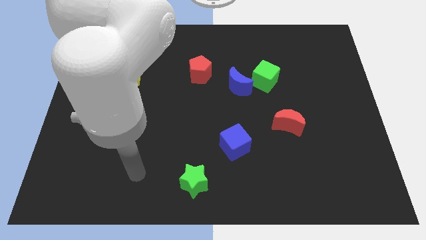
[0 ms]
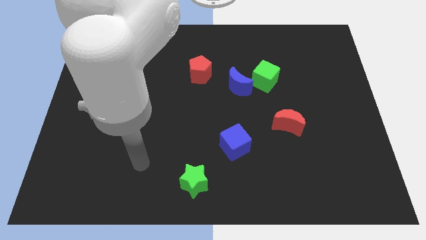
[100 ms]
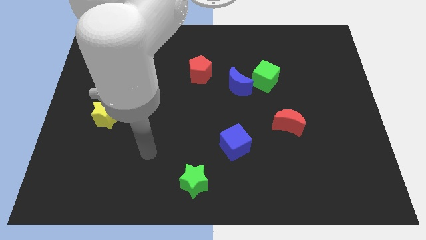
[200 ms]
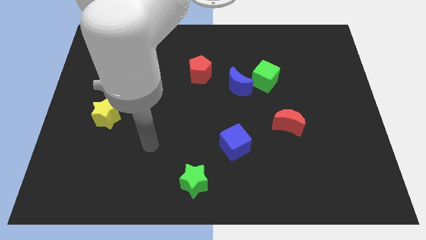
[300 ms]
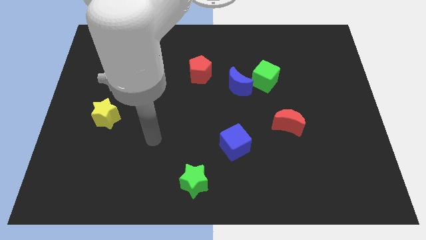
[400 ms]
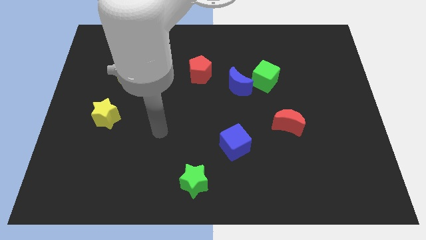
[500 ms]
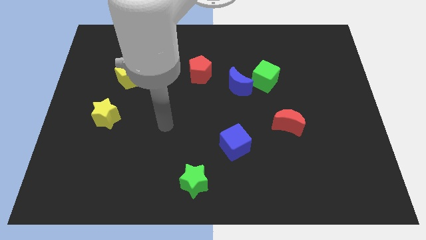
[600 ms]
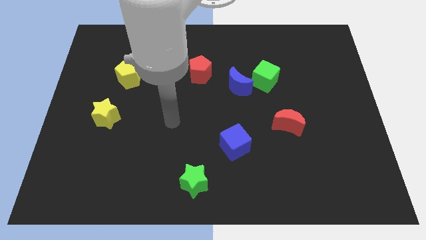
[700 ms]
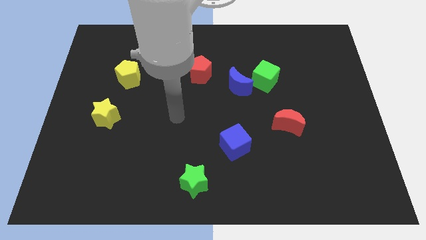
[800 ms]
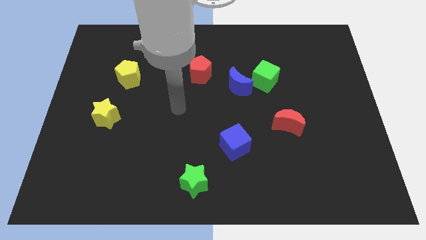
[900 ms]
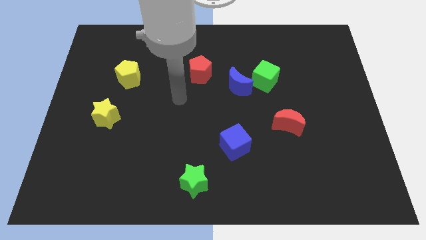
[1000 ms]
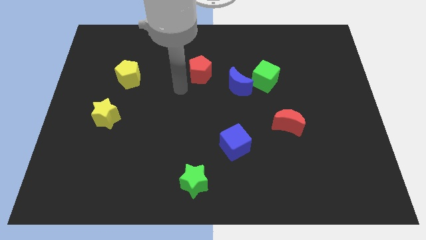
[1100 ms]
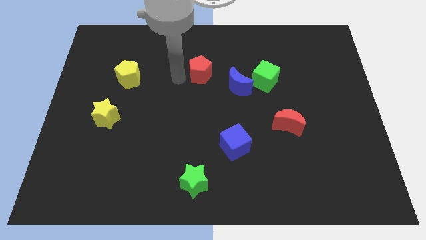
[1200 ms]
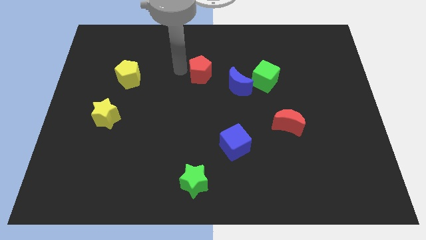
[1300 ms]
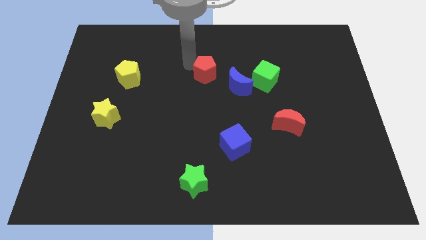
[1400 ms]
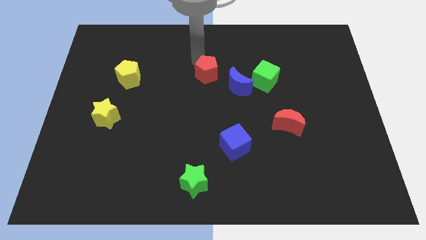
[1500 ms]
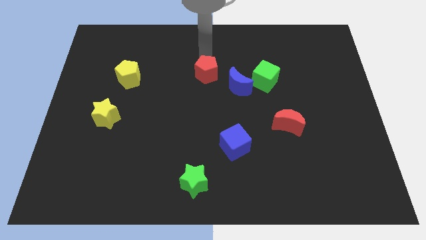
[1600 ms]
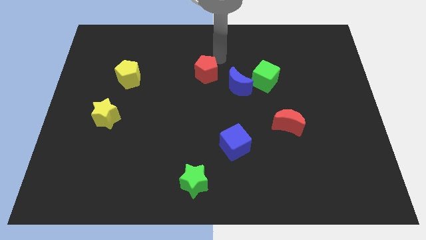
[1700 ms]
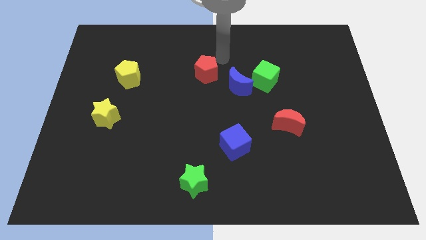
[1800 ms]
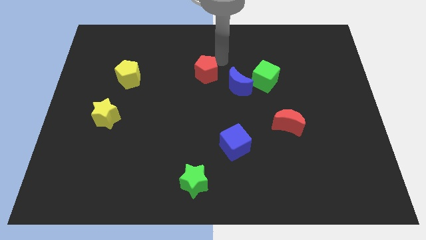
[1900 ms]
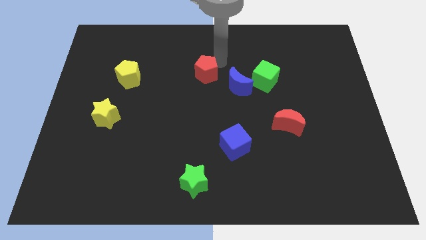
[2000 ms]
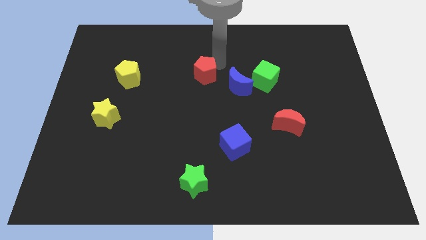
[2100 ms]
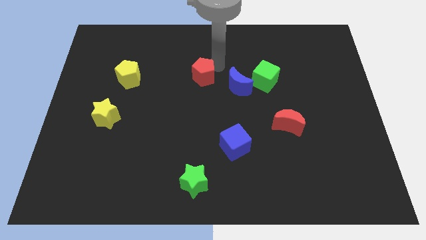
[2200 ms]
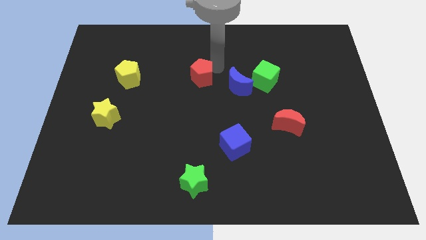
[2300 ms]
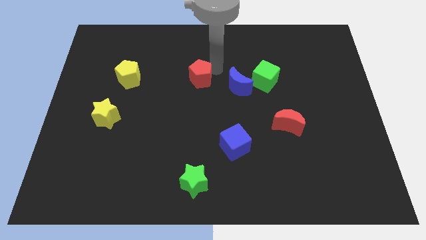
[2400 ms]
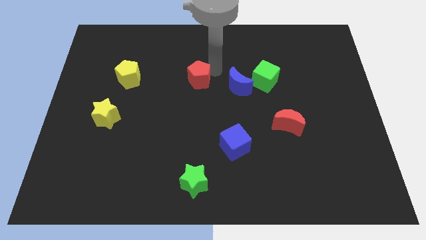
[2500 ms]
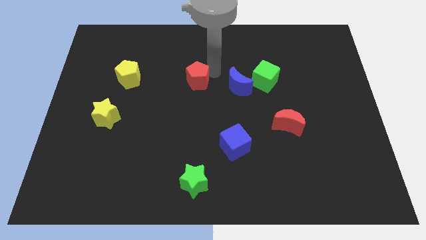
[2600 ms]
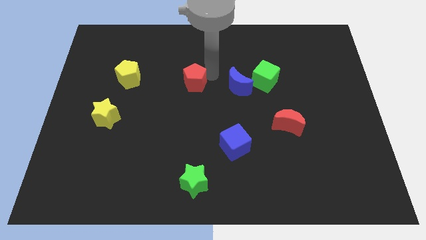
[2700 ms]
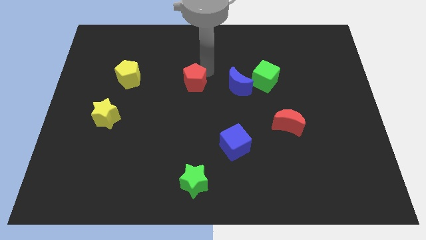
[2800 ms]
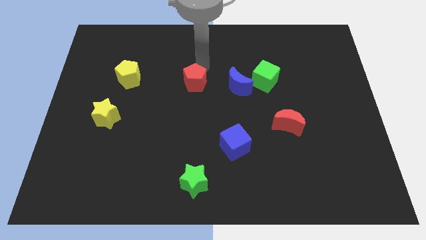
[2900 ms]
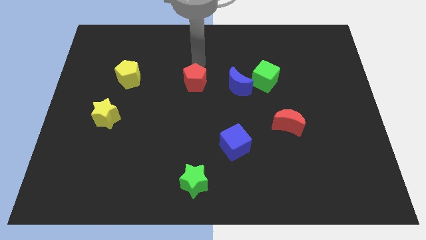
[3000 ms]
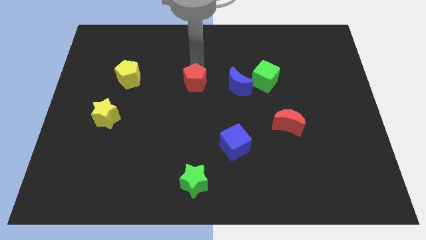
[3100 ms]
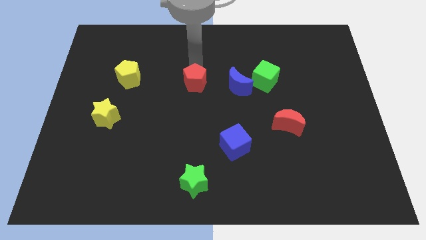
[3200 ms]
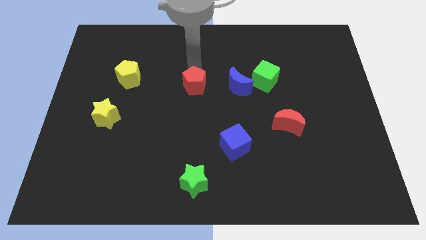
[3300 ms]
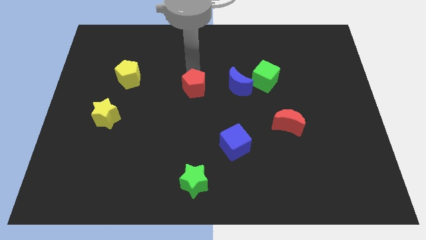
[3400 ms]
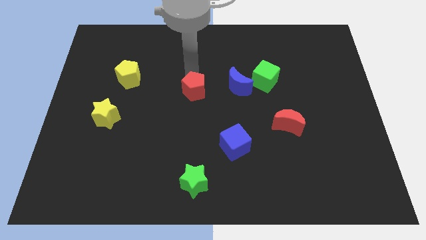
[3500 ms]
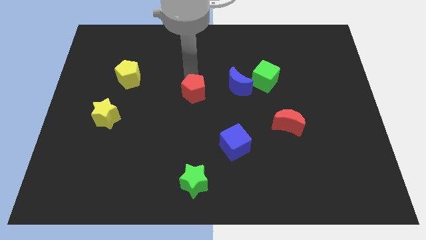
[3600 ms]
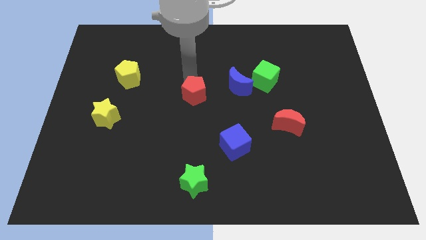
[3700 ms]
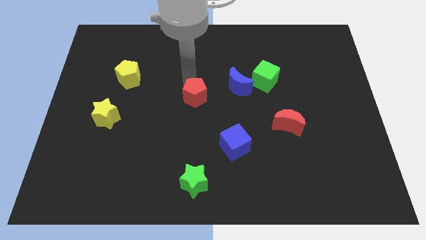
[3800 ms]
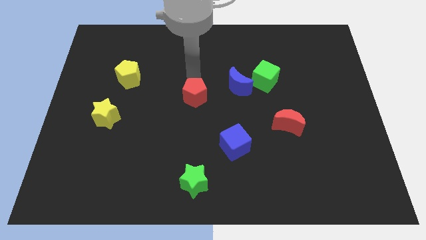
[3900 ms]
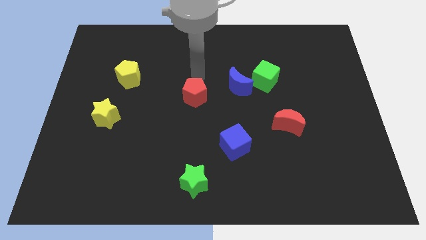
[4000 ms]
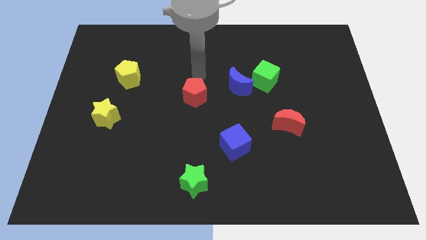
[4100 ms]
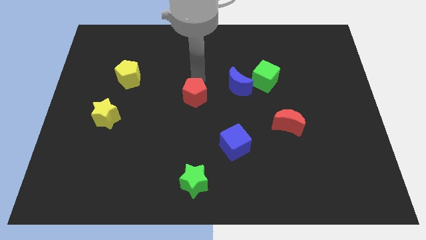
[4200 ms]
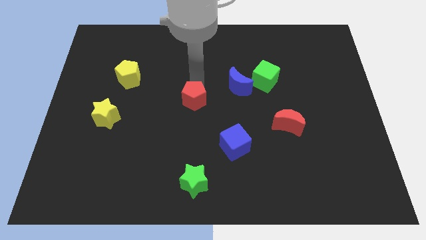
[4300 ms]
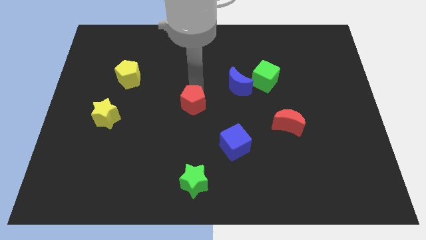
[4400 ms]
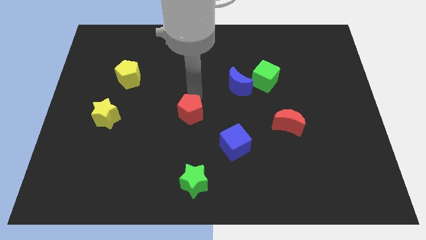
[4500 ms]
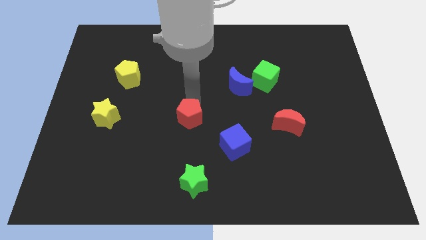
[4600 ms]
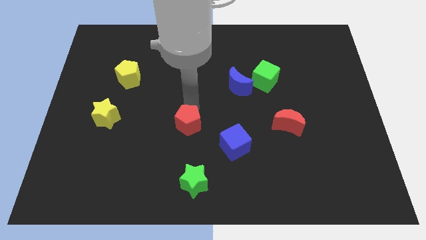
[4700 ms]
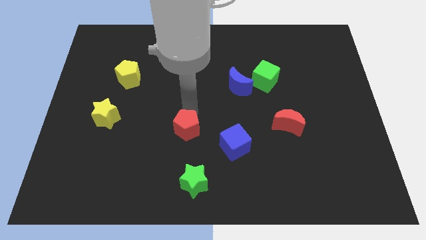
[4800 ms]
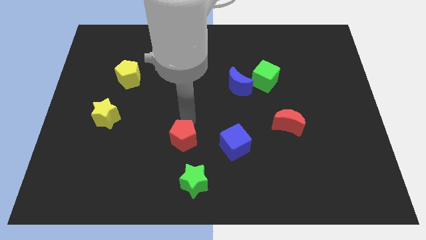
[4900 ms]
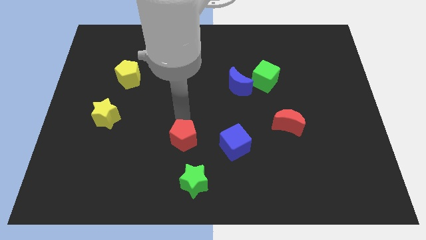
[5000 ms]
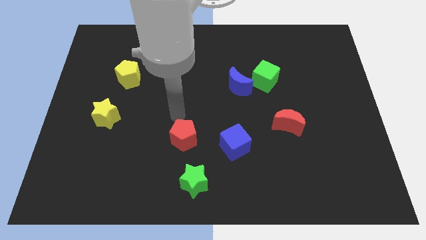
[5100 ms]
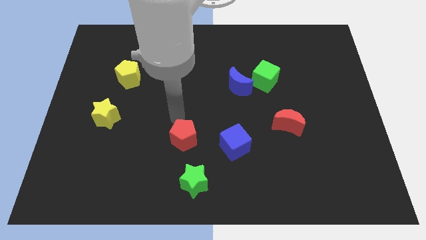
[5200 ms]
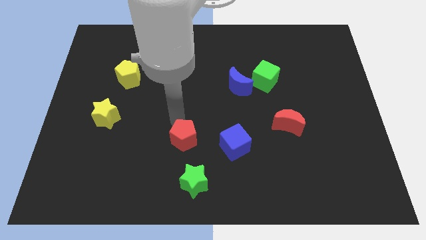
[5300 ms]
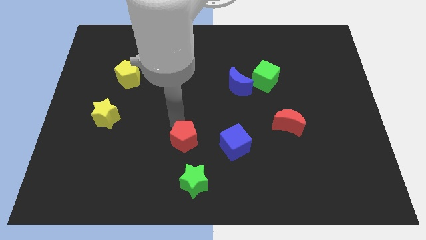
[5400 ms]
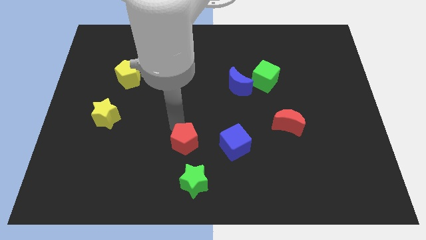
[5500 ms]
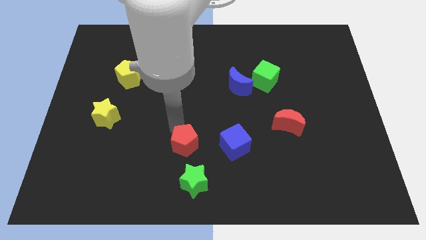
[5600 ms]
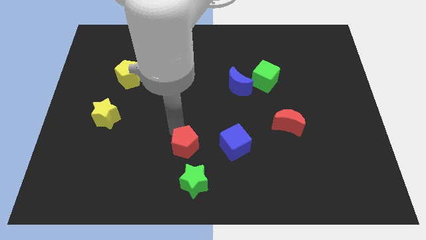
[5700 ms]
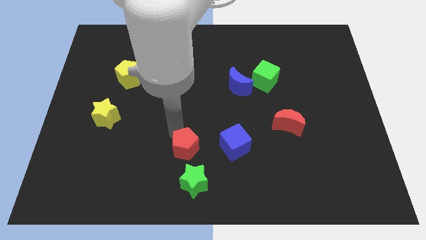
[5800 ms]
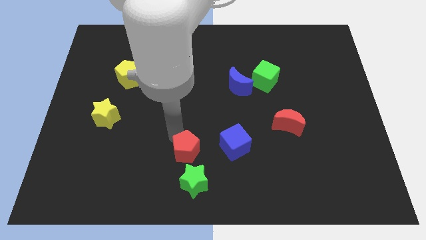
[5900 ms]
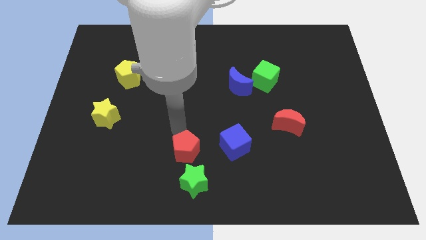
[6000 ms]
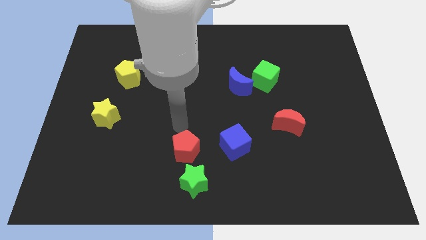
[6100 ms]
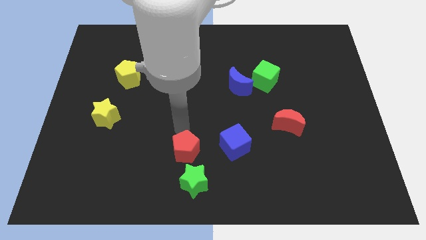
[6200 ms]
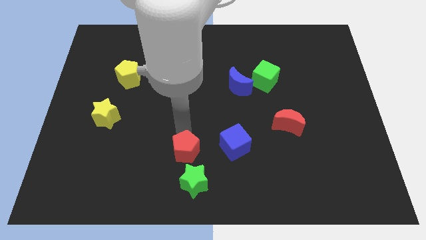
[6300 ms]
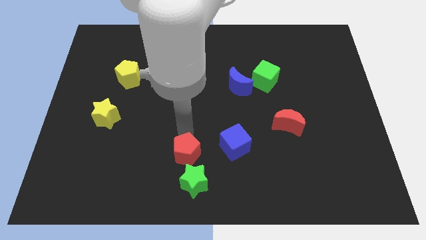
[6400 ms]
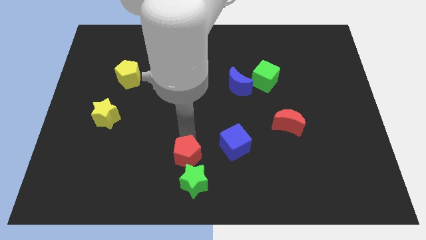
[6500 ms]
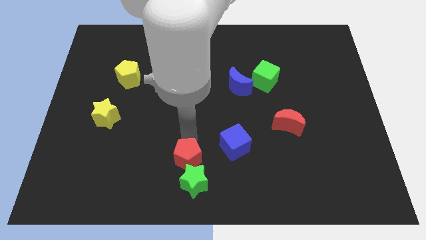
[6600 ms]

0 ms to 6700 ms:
push the red pentagon to the green star

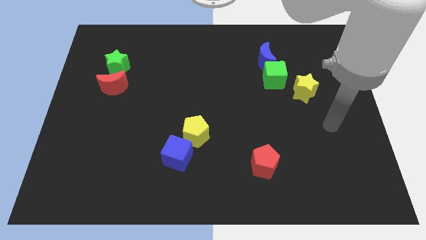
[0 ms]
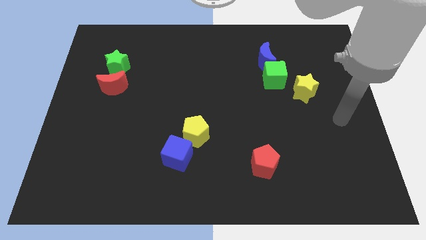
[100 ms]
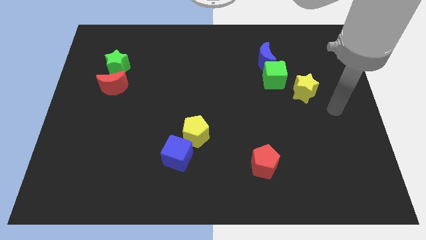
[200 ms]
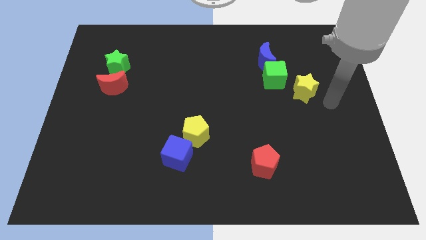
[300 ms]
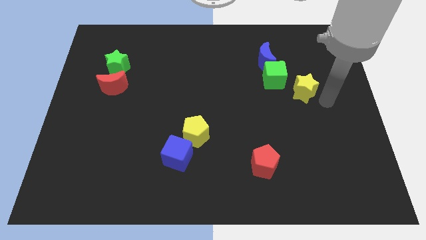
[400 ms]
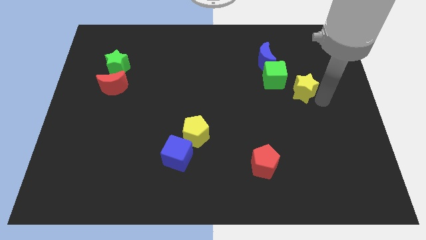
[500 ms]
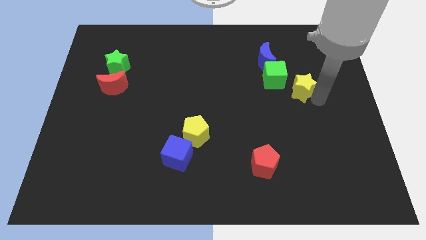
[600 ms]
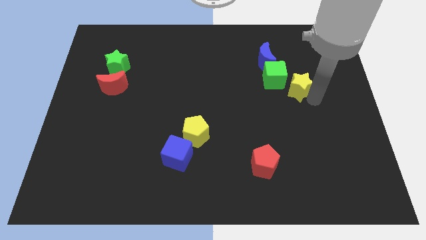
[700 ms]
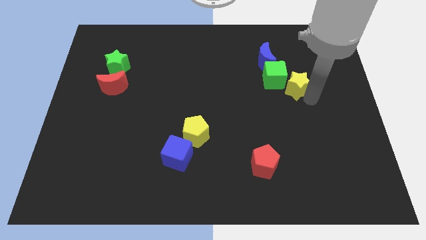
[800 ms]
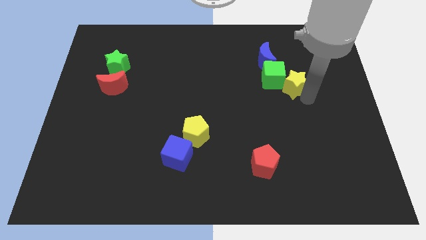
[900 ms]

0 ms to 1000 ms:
push the yellow star to the green cube
